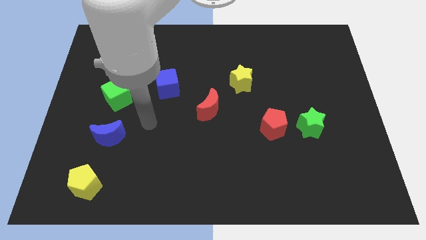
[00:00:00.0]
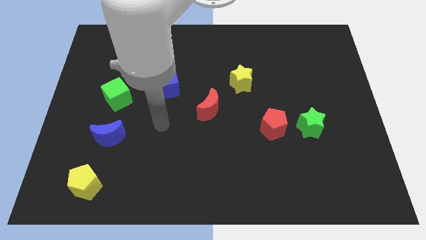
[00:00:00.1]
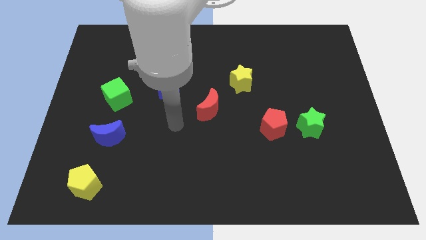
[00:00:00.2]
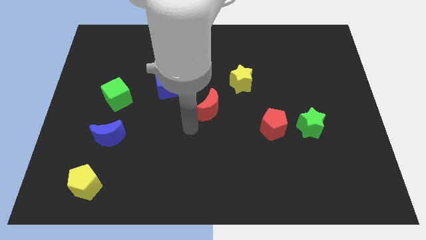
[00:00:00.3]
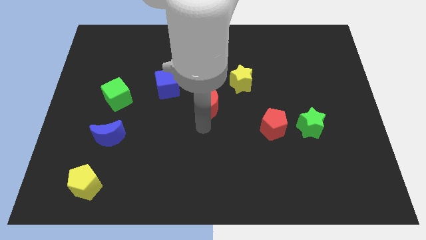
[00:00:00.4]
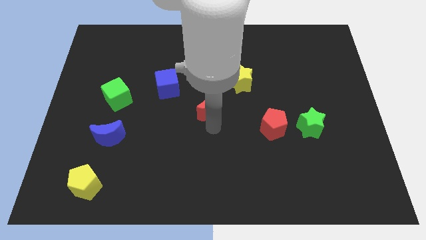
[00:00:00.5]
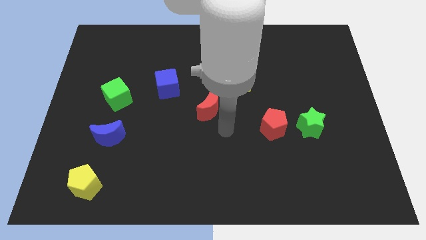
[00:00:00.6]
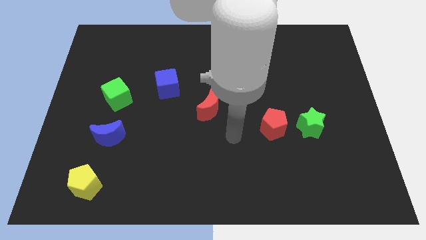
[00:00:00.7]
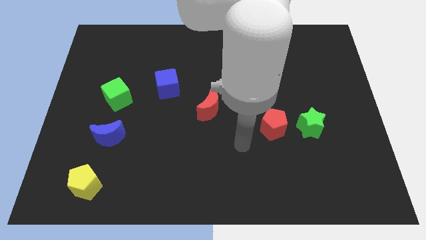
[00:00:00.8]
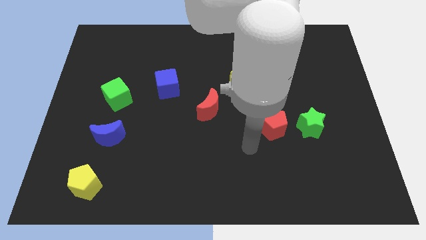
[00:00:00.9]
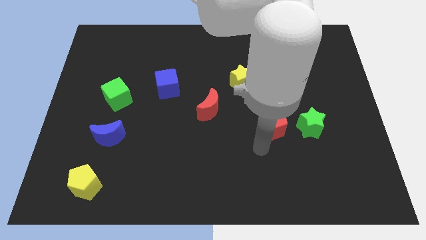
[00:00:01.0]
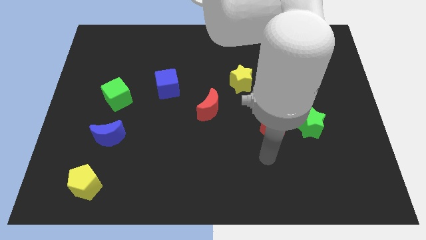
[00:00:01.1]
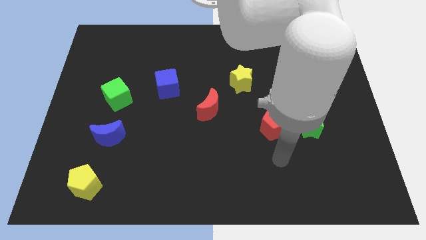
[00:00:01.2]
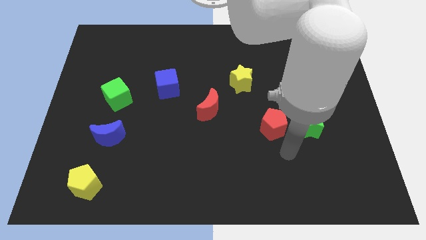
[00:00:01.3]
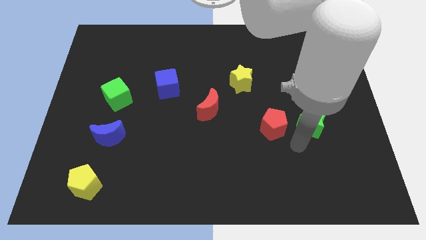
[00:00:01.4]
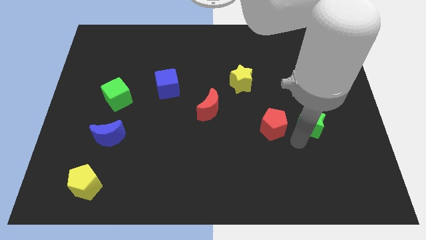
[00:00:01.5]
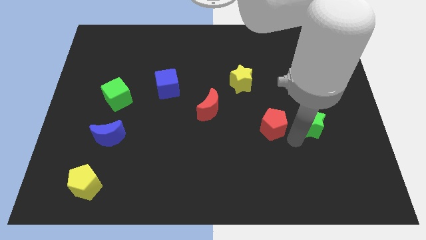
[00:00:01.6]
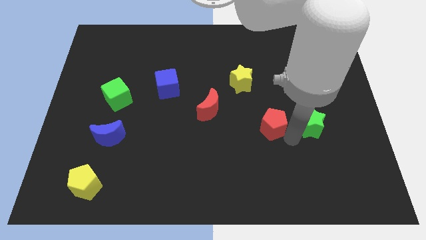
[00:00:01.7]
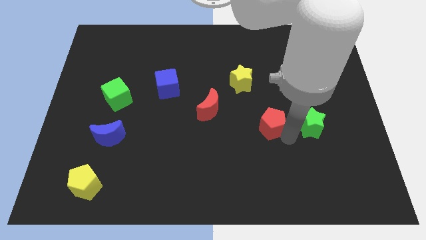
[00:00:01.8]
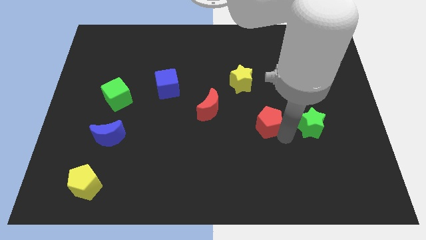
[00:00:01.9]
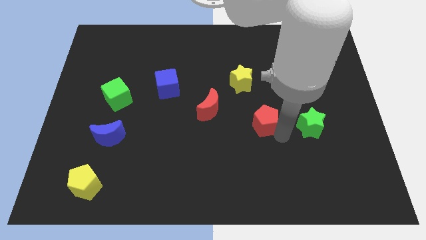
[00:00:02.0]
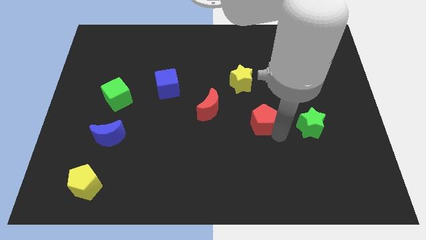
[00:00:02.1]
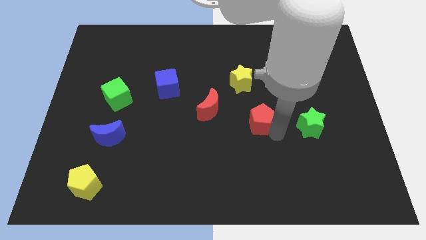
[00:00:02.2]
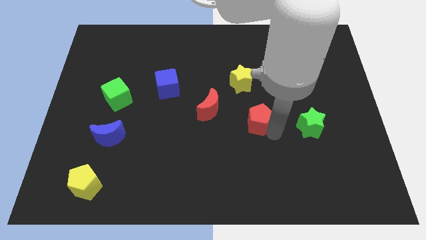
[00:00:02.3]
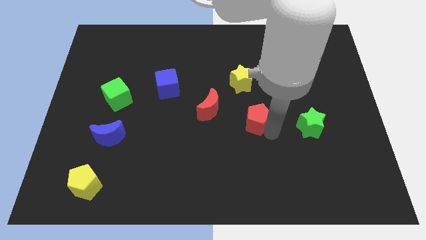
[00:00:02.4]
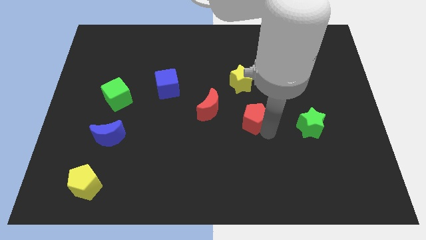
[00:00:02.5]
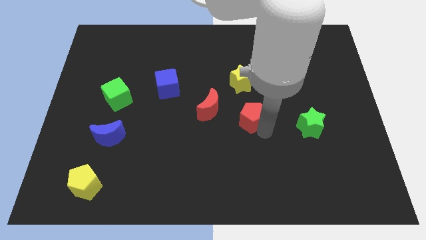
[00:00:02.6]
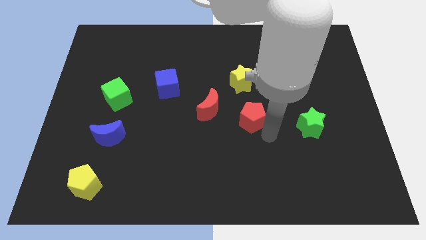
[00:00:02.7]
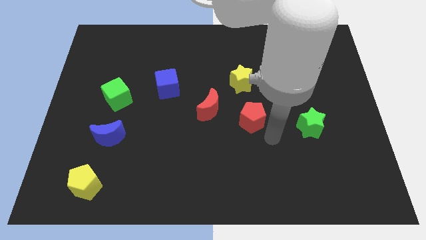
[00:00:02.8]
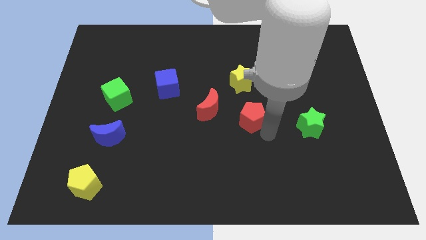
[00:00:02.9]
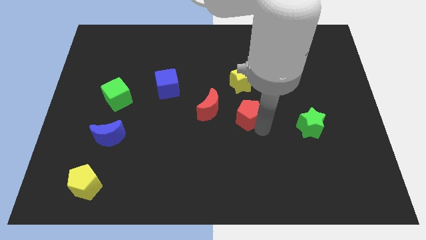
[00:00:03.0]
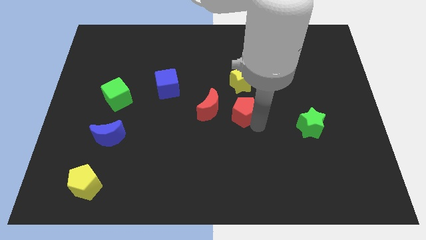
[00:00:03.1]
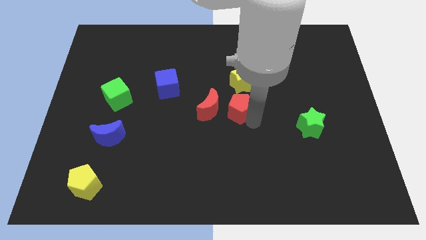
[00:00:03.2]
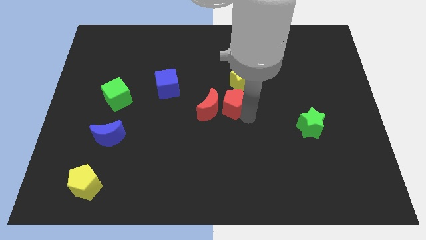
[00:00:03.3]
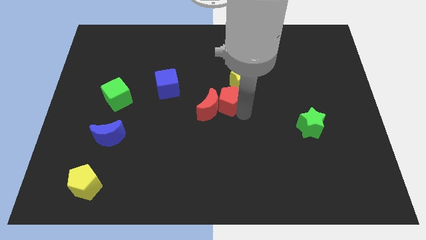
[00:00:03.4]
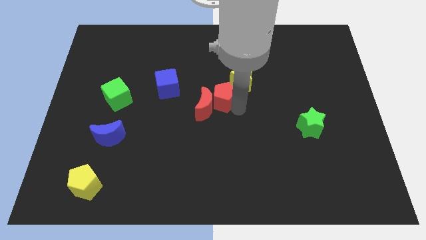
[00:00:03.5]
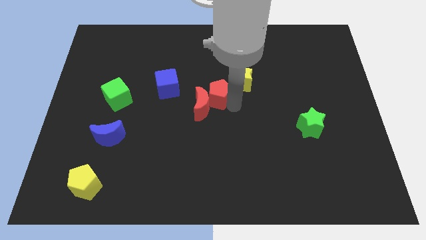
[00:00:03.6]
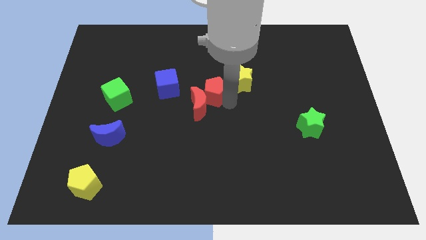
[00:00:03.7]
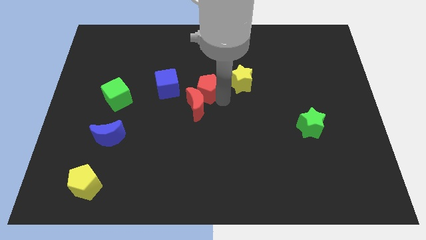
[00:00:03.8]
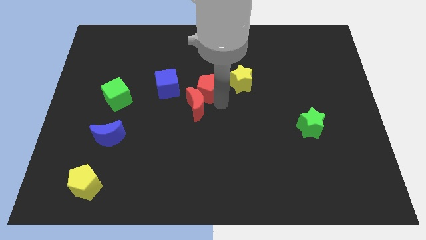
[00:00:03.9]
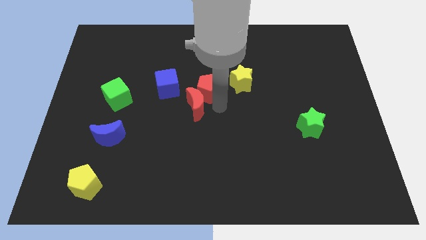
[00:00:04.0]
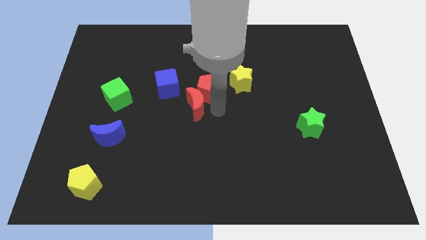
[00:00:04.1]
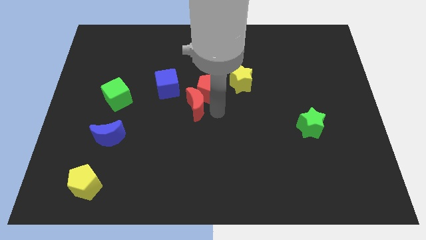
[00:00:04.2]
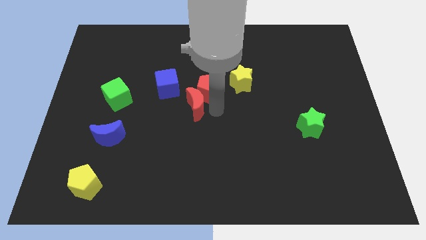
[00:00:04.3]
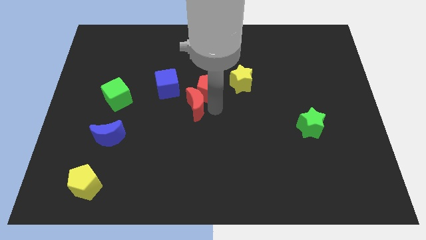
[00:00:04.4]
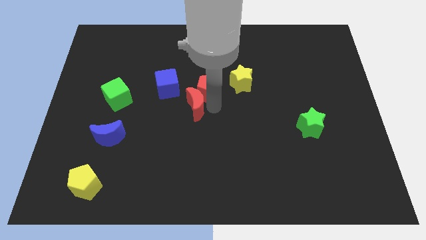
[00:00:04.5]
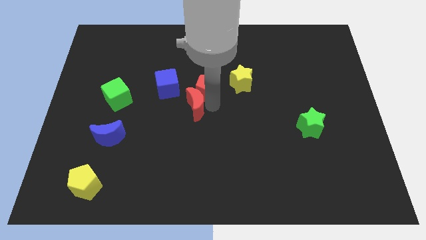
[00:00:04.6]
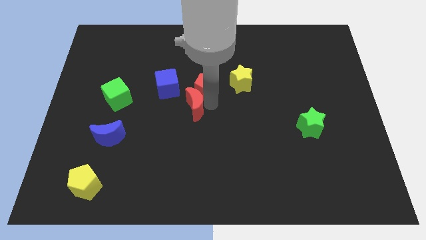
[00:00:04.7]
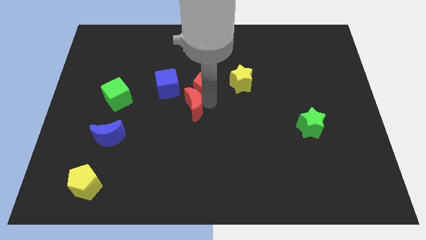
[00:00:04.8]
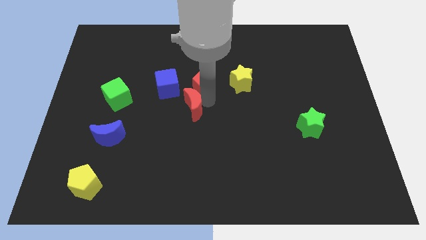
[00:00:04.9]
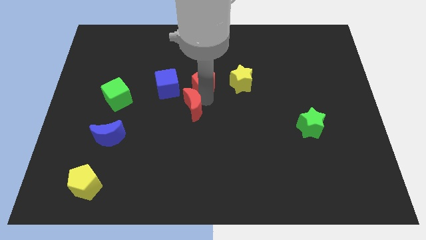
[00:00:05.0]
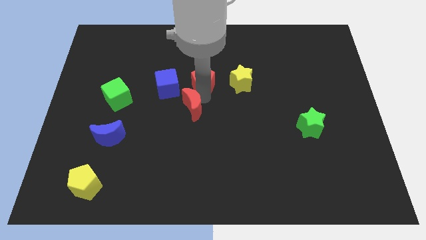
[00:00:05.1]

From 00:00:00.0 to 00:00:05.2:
slide the red pentagon upwards and to the left

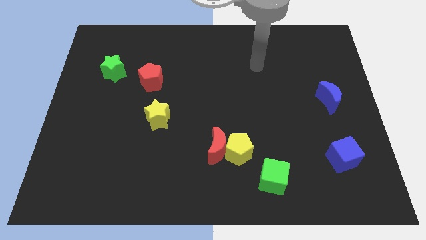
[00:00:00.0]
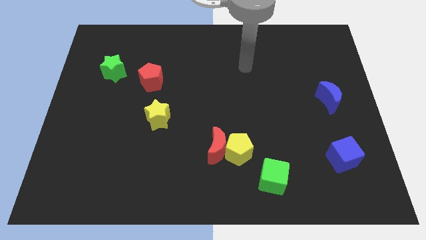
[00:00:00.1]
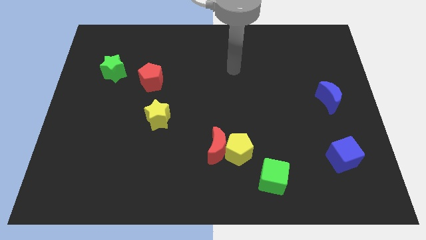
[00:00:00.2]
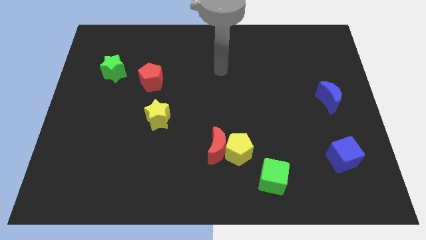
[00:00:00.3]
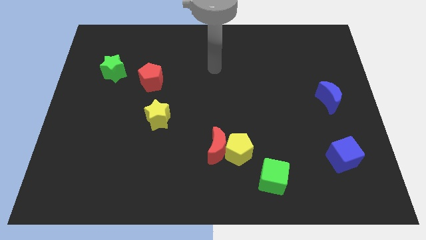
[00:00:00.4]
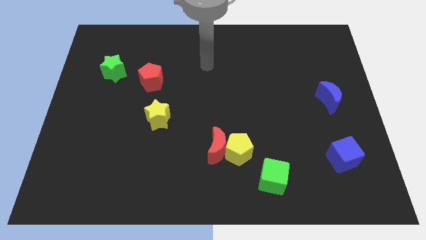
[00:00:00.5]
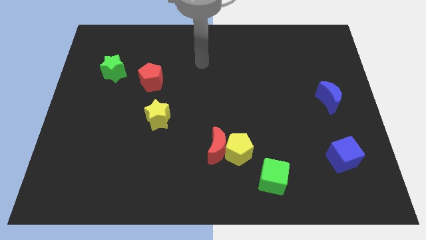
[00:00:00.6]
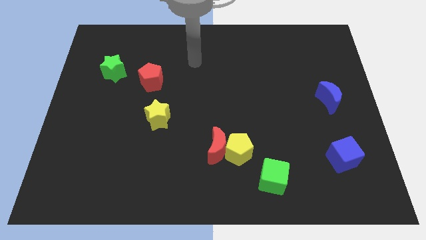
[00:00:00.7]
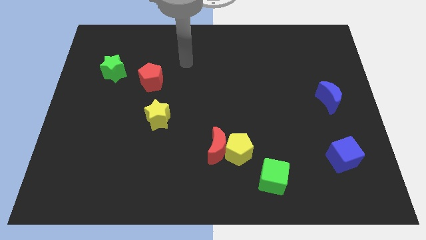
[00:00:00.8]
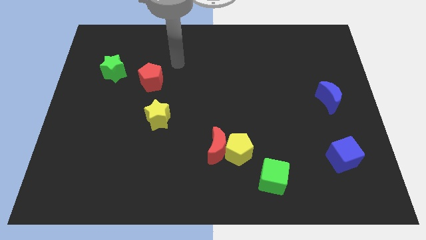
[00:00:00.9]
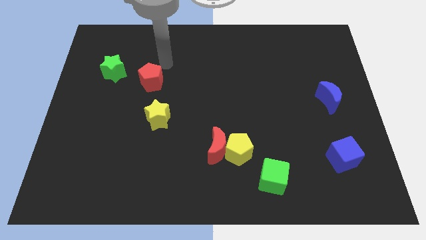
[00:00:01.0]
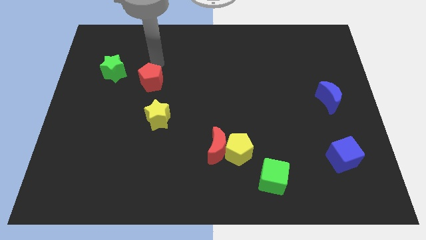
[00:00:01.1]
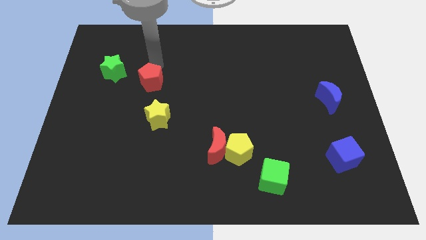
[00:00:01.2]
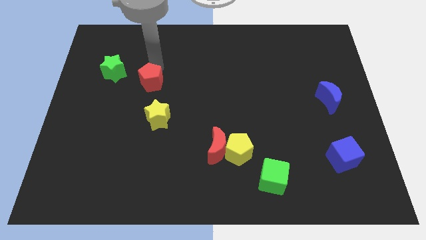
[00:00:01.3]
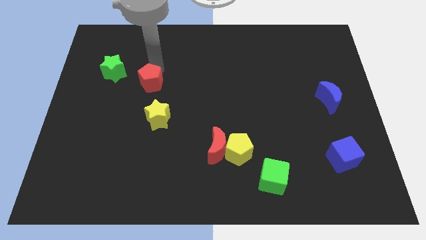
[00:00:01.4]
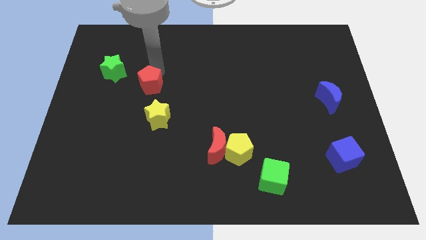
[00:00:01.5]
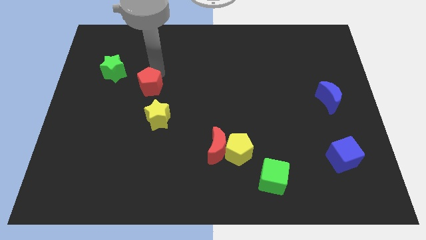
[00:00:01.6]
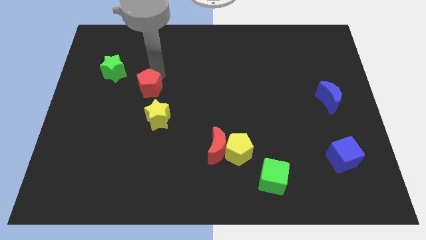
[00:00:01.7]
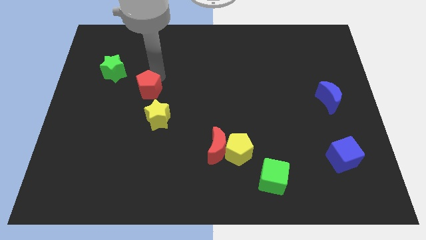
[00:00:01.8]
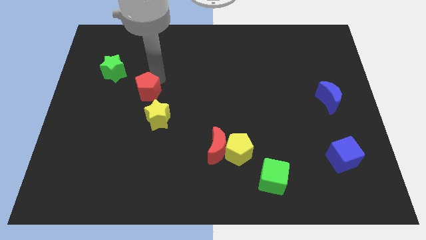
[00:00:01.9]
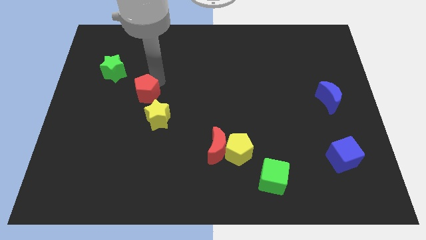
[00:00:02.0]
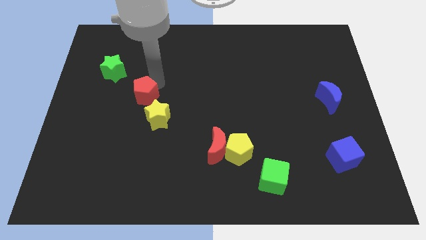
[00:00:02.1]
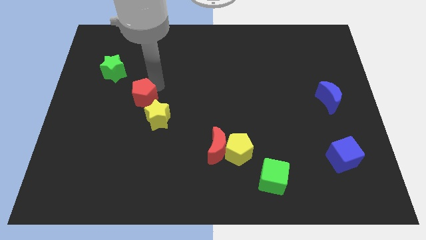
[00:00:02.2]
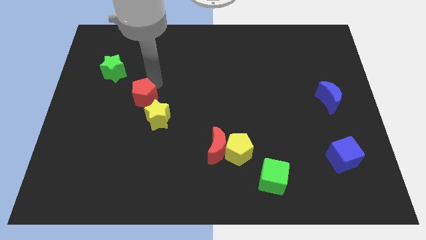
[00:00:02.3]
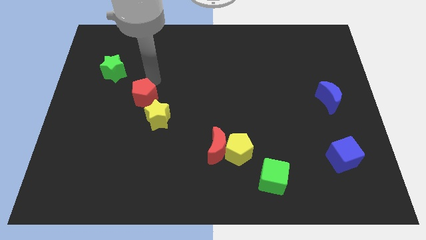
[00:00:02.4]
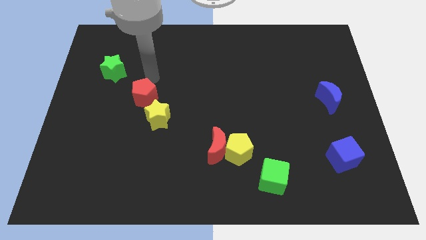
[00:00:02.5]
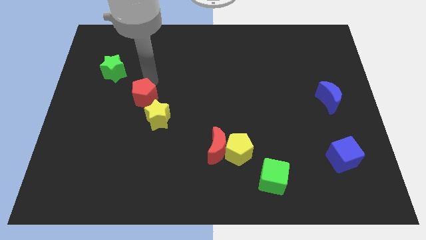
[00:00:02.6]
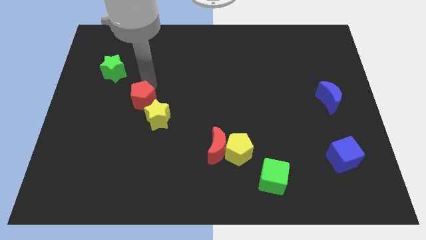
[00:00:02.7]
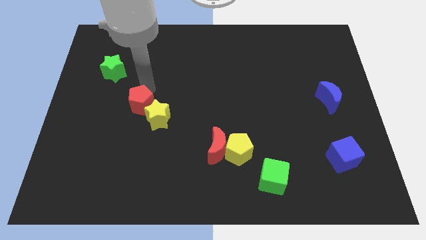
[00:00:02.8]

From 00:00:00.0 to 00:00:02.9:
slightly slide the red pentagon downwards
